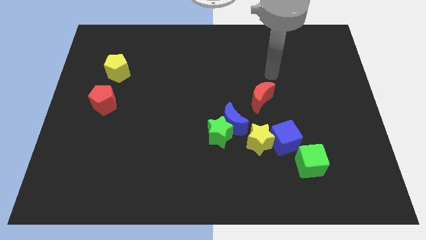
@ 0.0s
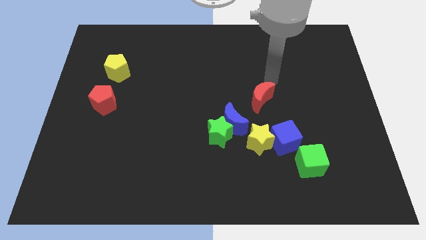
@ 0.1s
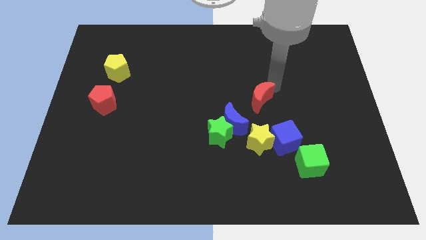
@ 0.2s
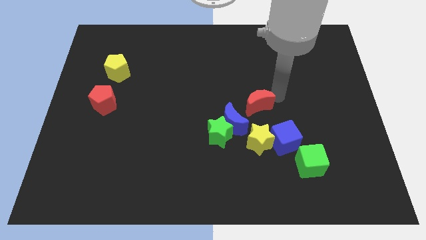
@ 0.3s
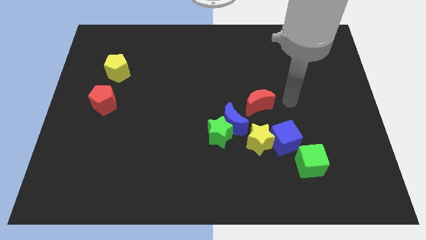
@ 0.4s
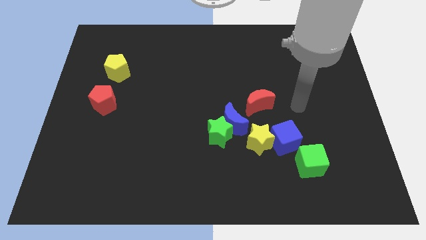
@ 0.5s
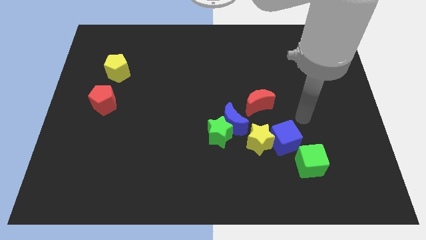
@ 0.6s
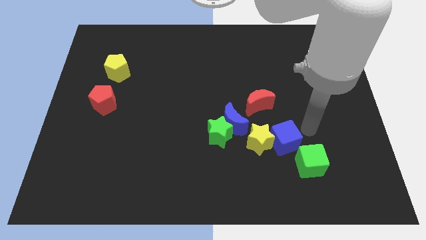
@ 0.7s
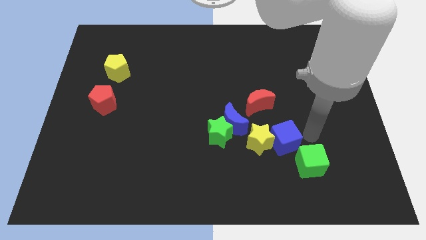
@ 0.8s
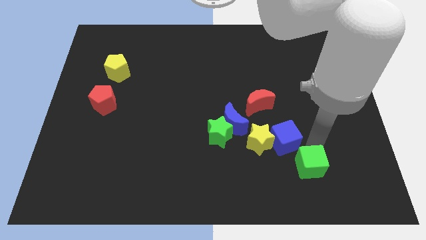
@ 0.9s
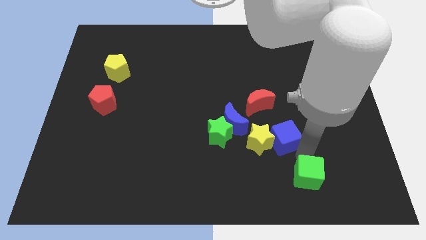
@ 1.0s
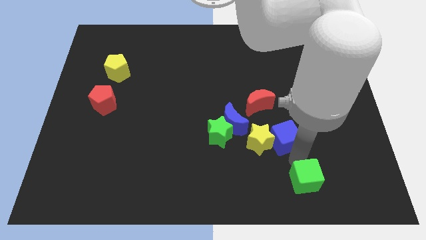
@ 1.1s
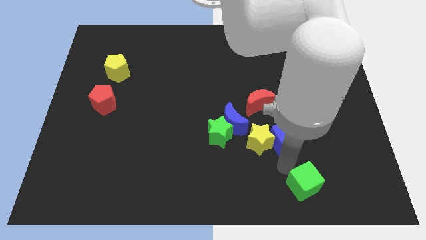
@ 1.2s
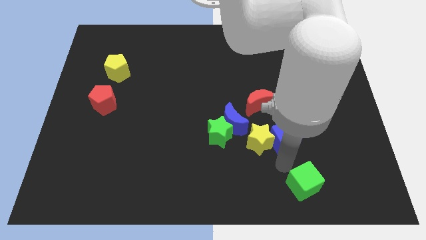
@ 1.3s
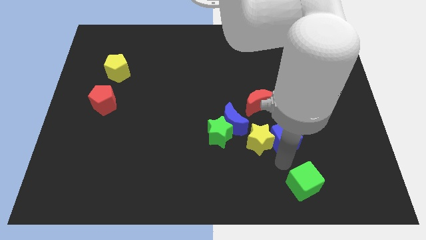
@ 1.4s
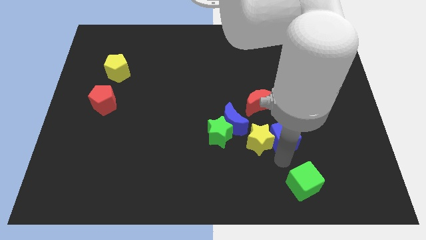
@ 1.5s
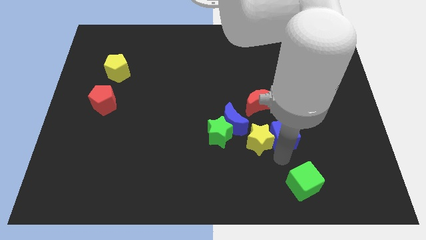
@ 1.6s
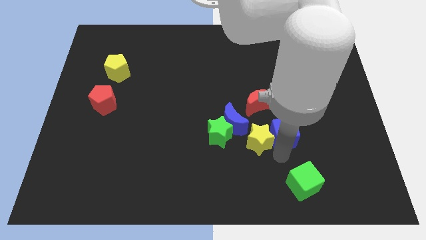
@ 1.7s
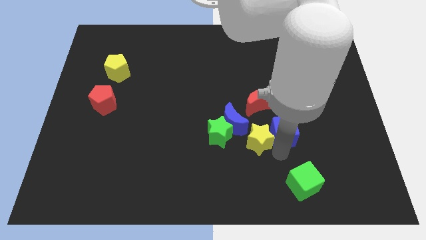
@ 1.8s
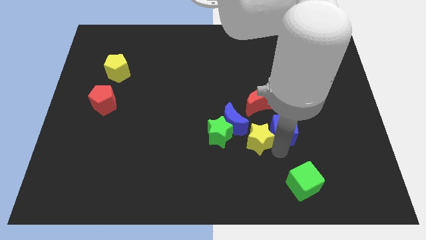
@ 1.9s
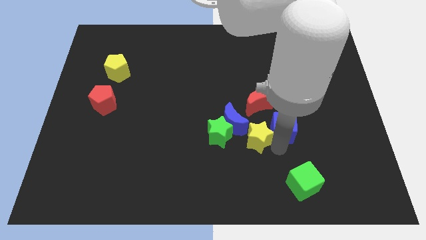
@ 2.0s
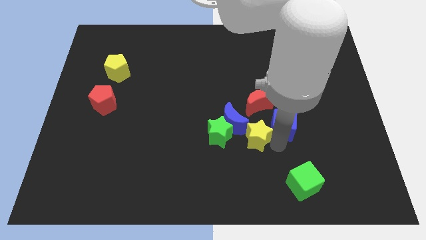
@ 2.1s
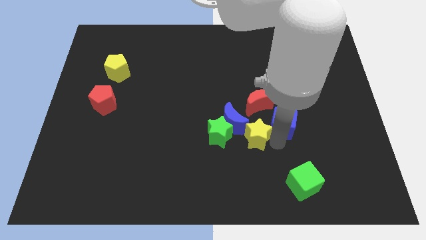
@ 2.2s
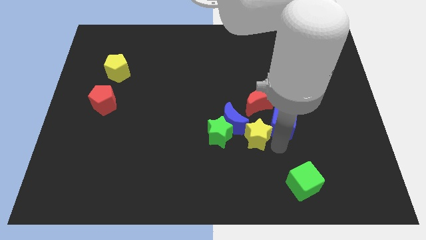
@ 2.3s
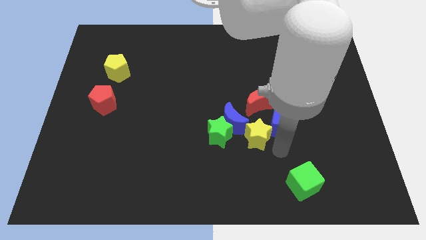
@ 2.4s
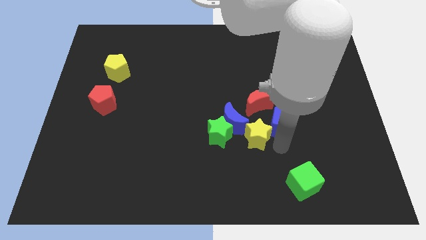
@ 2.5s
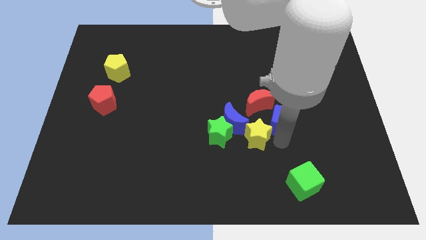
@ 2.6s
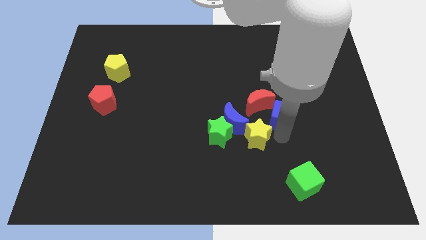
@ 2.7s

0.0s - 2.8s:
pull the blue cube apart from the yellow star and green cube

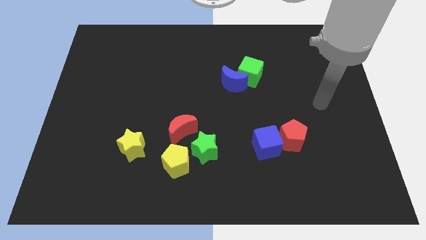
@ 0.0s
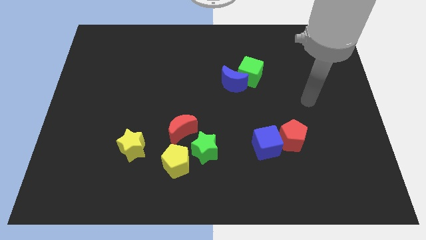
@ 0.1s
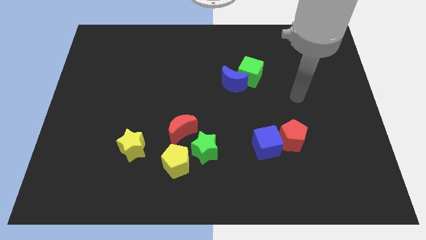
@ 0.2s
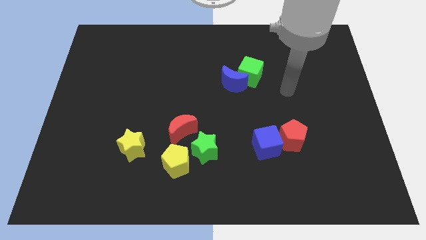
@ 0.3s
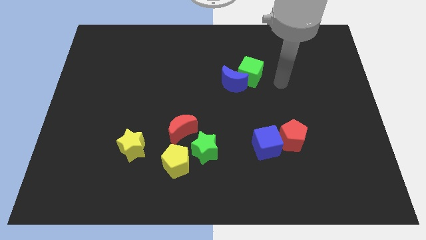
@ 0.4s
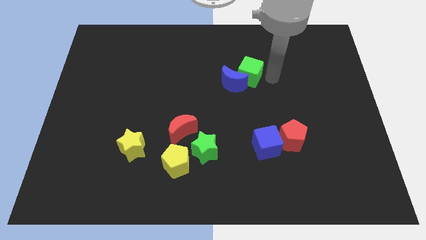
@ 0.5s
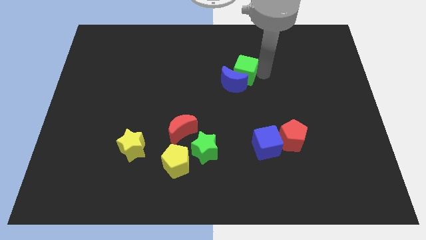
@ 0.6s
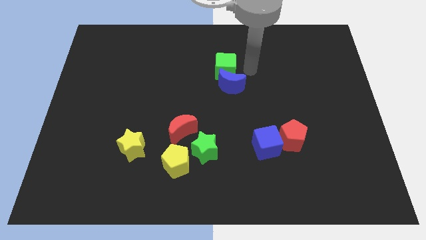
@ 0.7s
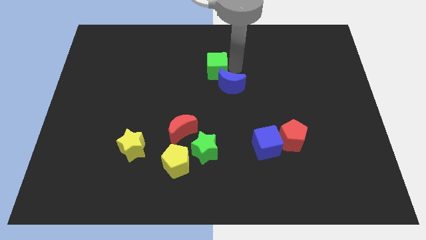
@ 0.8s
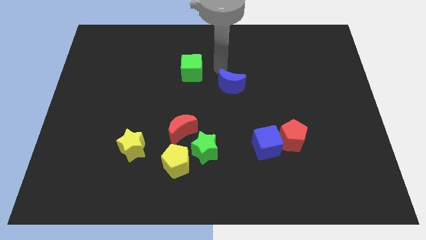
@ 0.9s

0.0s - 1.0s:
separate the blue moon from the green cube

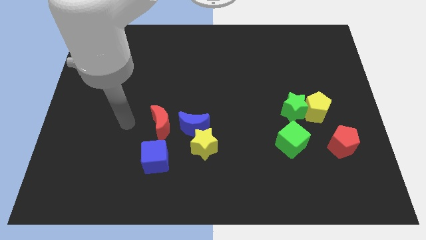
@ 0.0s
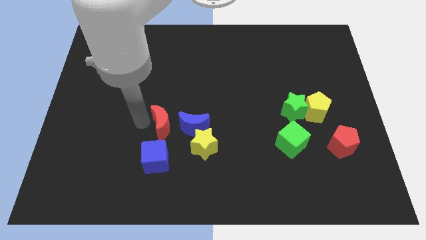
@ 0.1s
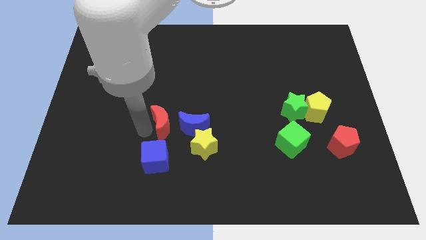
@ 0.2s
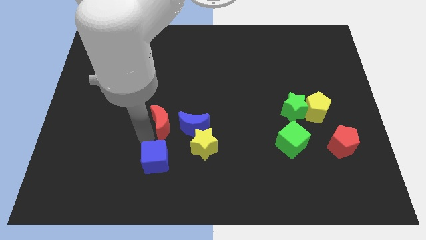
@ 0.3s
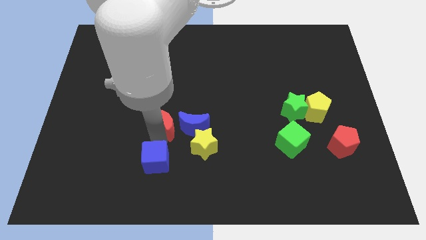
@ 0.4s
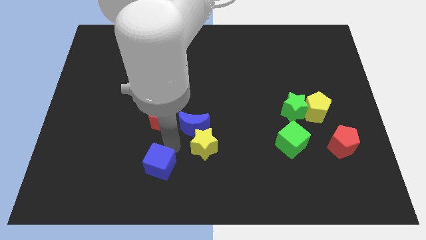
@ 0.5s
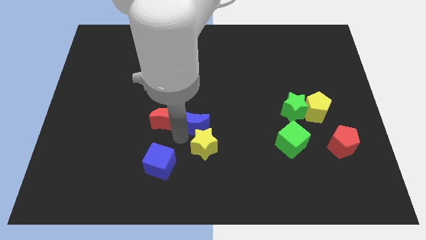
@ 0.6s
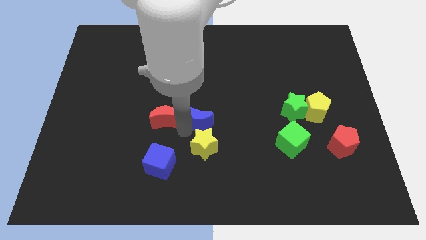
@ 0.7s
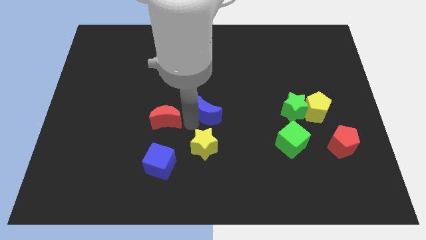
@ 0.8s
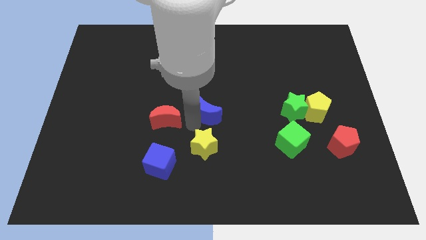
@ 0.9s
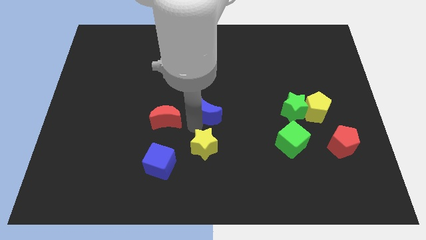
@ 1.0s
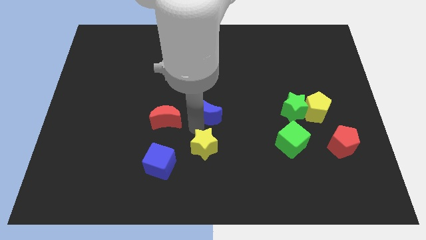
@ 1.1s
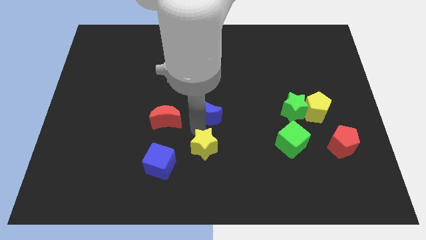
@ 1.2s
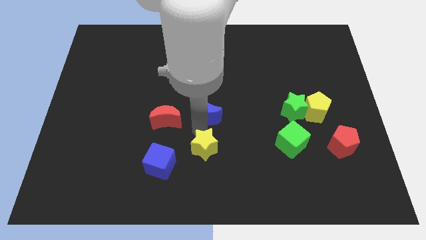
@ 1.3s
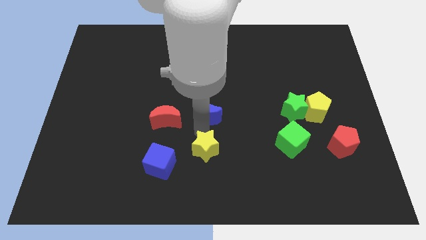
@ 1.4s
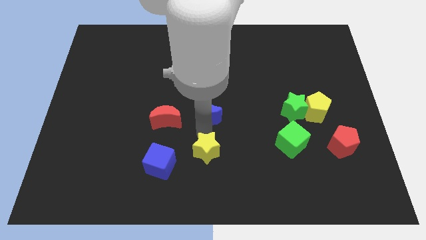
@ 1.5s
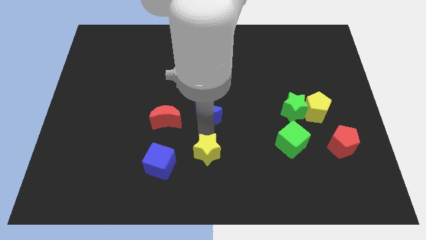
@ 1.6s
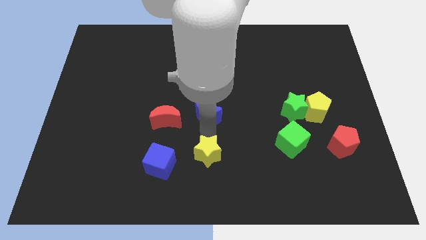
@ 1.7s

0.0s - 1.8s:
separate the yellow star from the blue moon

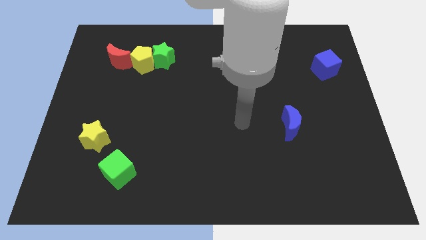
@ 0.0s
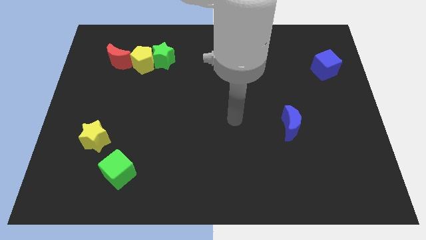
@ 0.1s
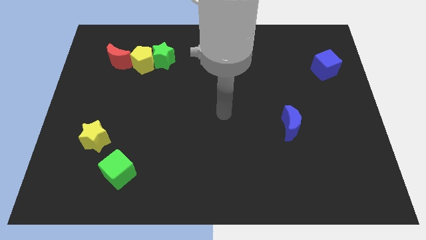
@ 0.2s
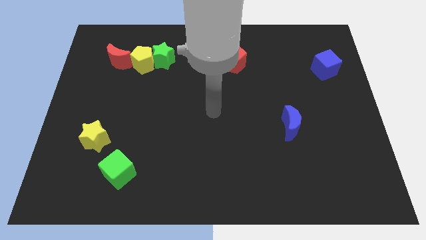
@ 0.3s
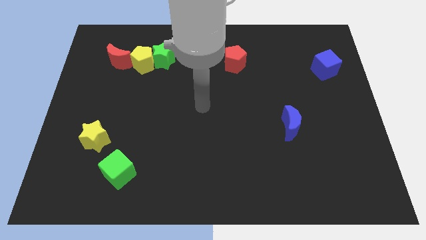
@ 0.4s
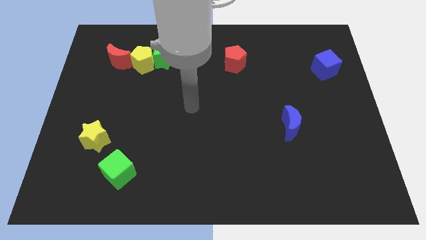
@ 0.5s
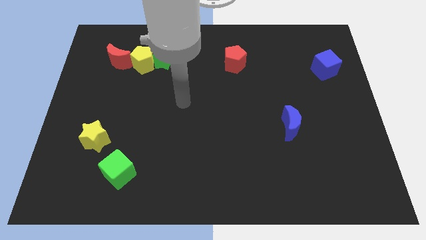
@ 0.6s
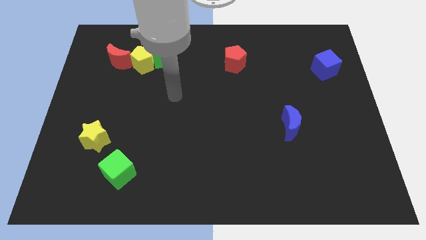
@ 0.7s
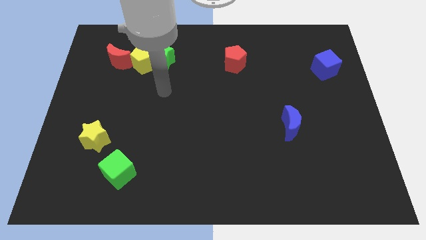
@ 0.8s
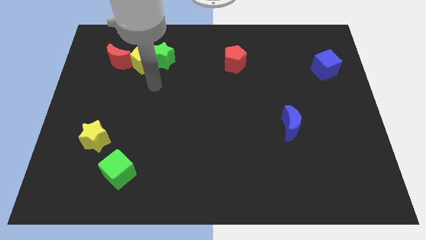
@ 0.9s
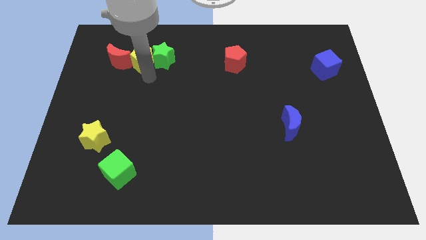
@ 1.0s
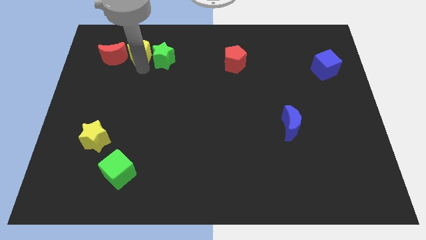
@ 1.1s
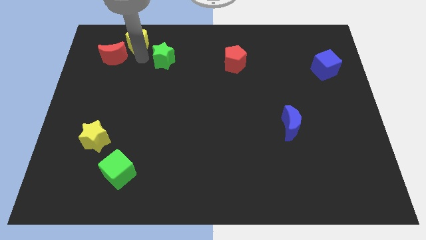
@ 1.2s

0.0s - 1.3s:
move the green star away from the yellow pentagon

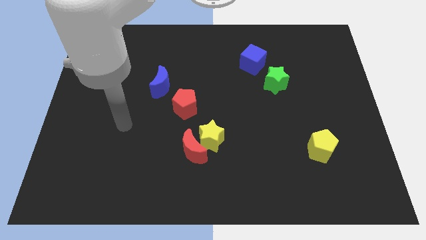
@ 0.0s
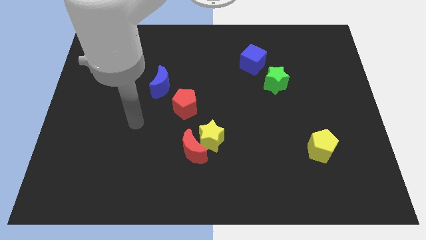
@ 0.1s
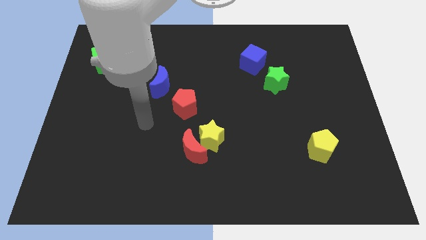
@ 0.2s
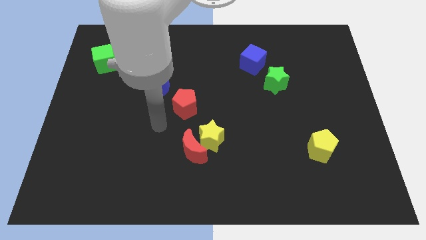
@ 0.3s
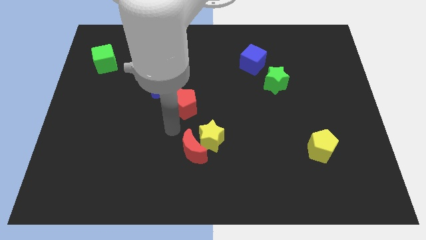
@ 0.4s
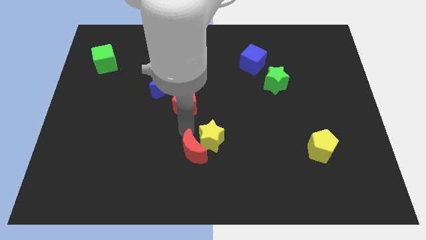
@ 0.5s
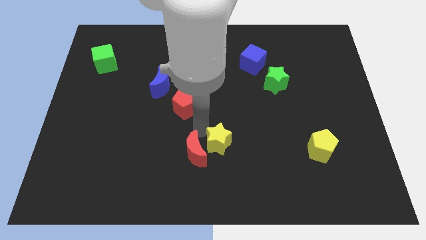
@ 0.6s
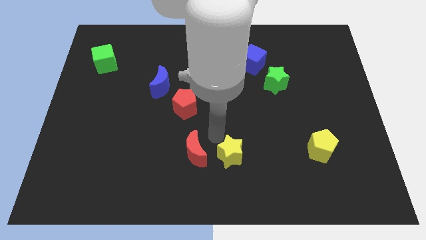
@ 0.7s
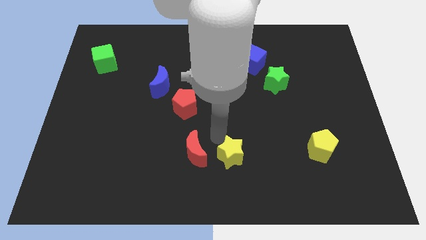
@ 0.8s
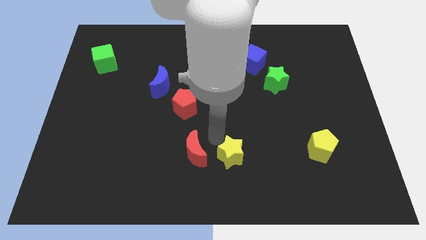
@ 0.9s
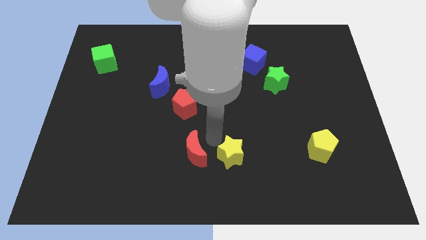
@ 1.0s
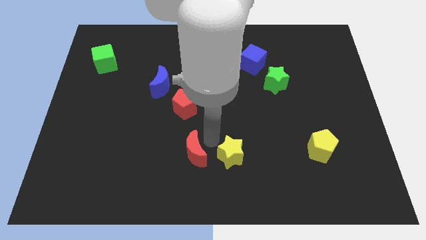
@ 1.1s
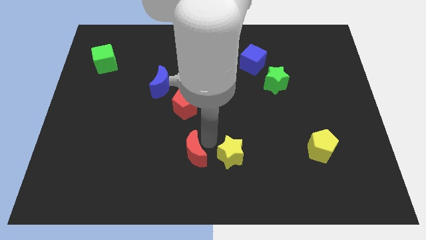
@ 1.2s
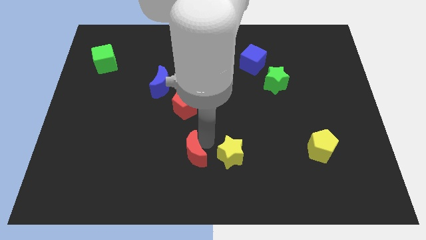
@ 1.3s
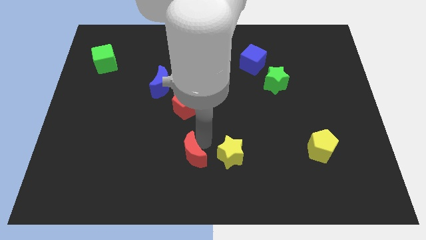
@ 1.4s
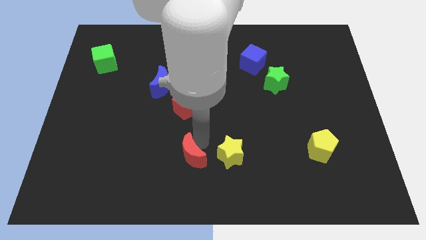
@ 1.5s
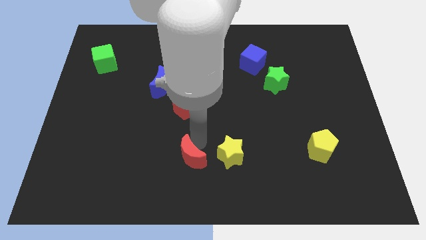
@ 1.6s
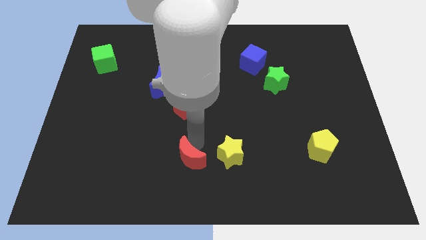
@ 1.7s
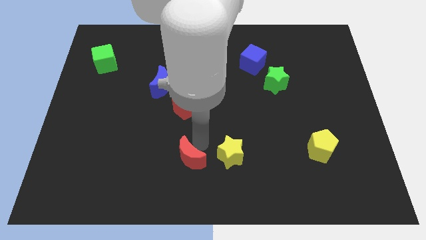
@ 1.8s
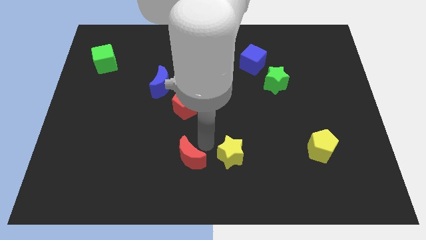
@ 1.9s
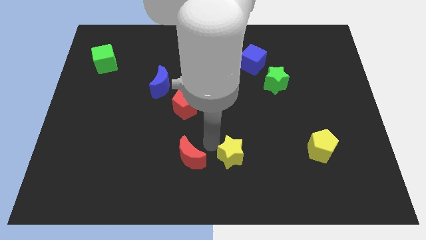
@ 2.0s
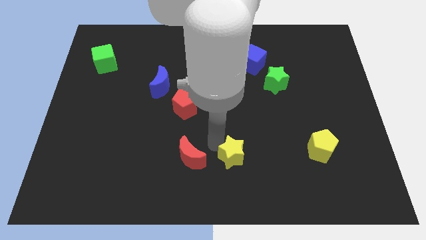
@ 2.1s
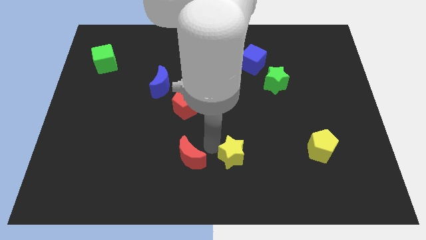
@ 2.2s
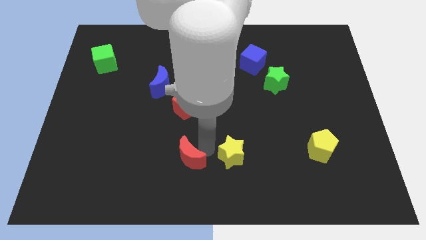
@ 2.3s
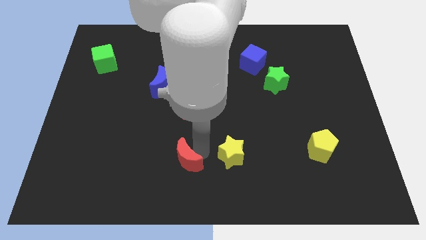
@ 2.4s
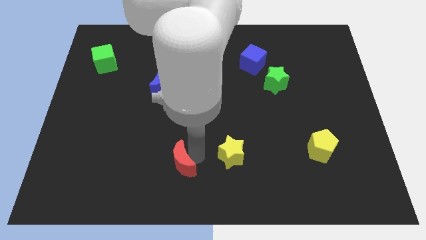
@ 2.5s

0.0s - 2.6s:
move the red moon away from the yellow star
